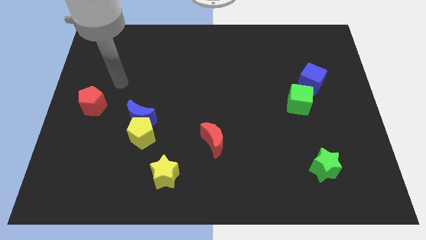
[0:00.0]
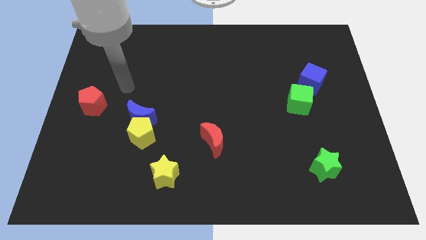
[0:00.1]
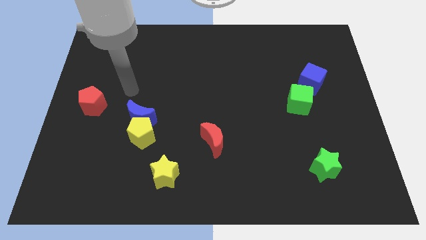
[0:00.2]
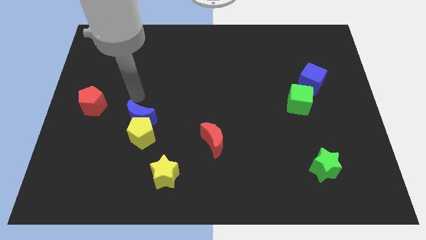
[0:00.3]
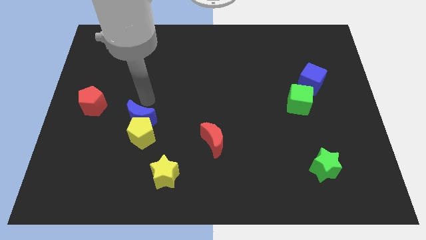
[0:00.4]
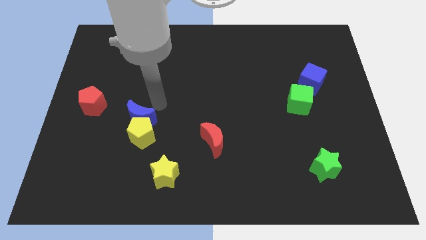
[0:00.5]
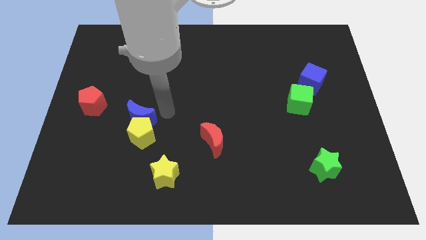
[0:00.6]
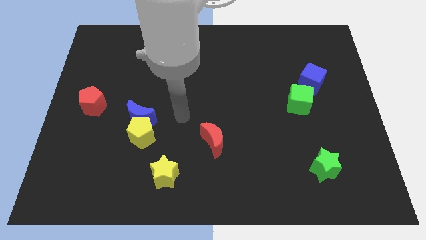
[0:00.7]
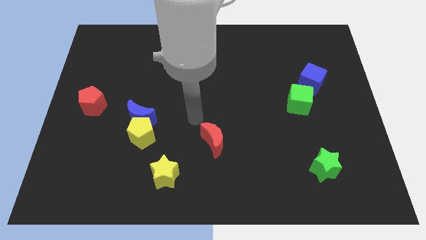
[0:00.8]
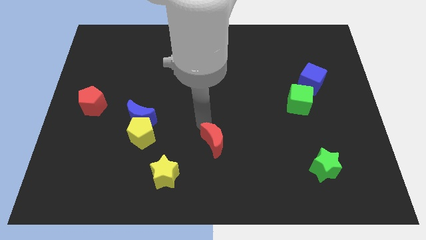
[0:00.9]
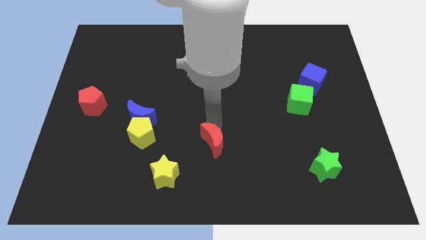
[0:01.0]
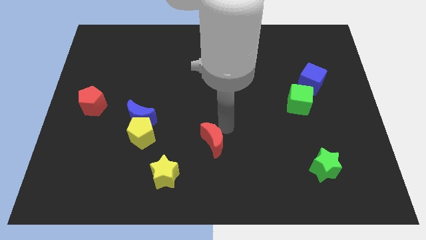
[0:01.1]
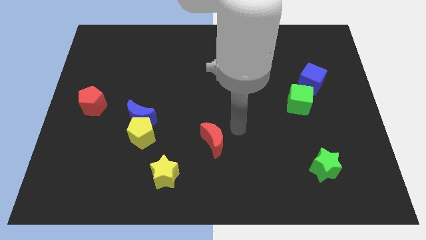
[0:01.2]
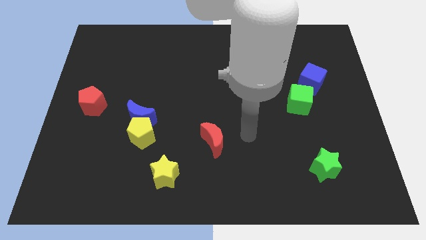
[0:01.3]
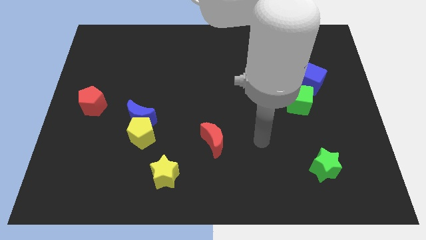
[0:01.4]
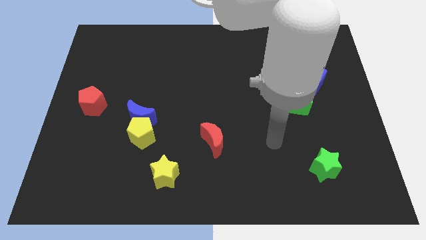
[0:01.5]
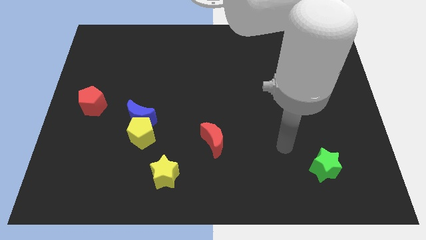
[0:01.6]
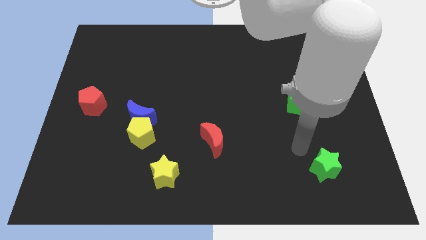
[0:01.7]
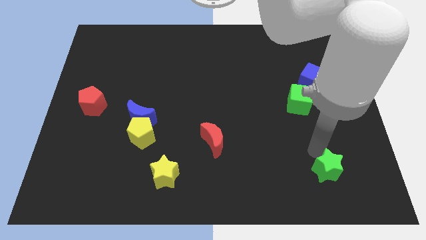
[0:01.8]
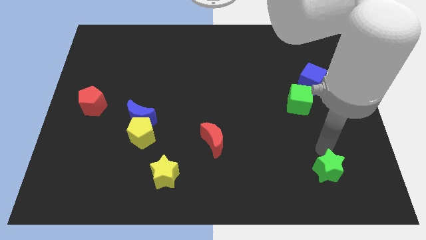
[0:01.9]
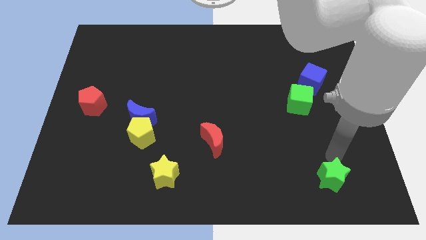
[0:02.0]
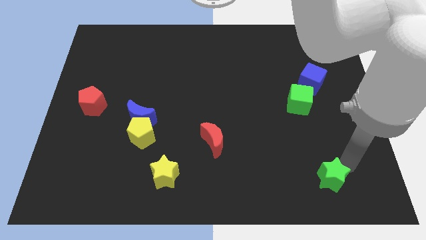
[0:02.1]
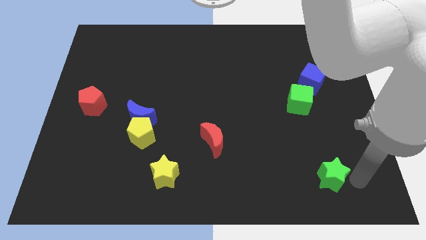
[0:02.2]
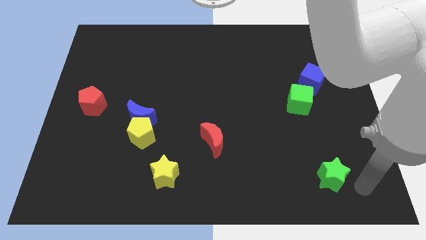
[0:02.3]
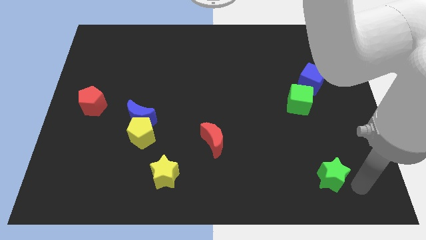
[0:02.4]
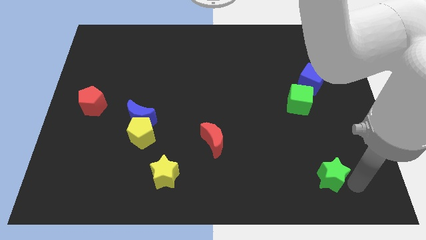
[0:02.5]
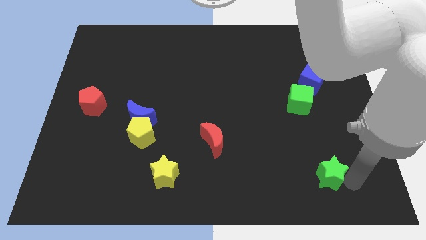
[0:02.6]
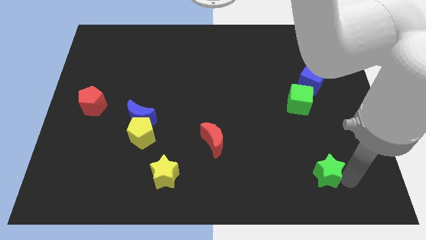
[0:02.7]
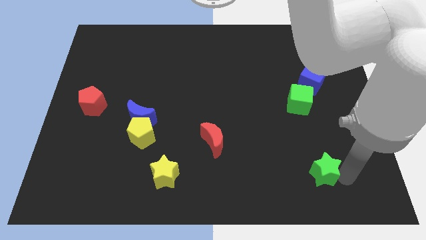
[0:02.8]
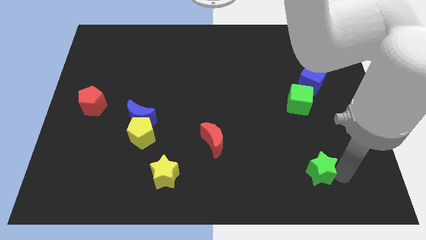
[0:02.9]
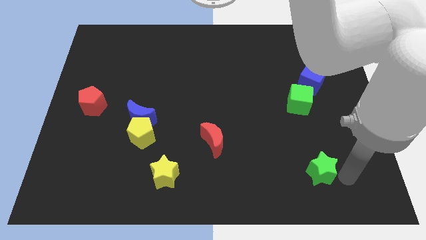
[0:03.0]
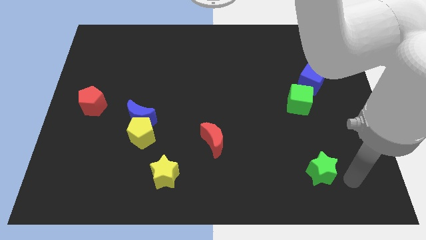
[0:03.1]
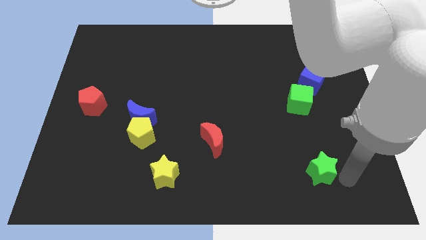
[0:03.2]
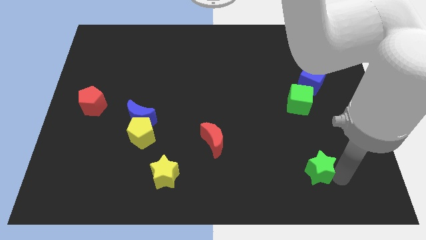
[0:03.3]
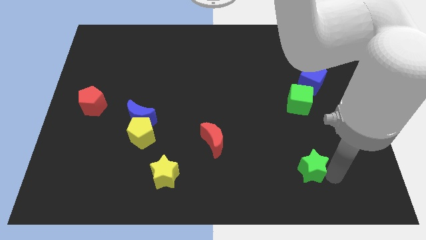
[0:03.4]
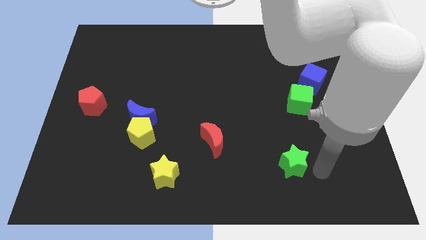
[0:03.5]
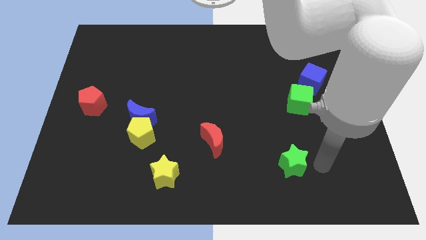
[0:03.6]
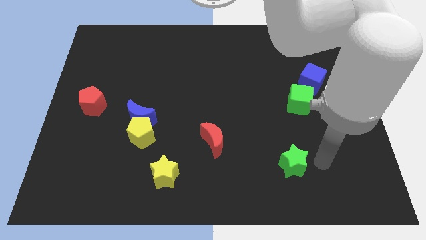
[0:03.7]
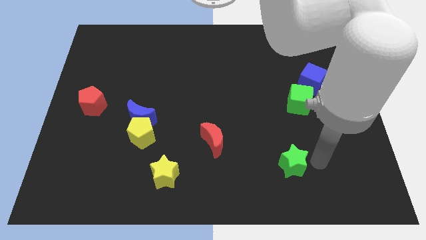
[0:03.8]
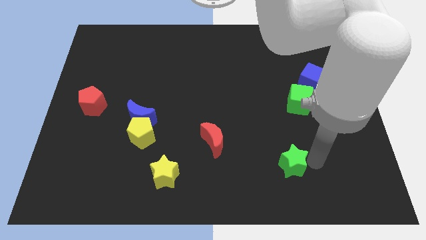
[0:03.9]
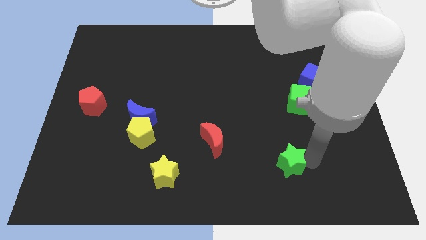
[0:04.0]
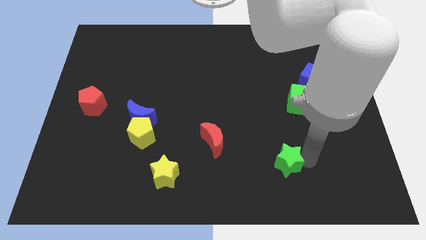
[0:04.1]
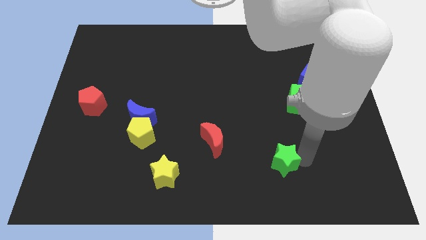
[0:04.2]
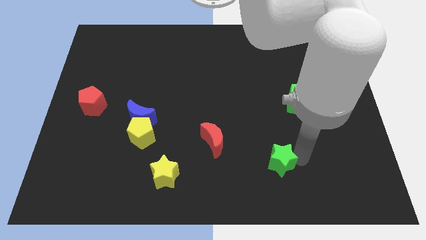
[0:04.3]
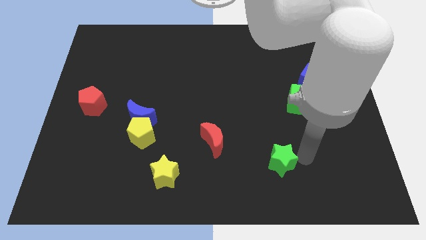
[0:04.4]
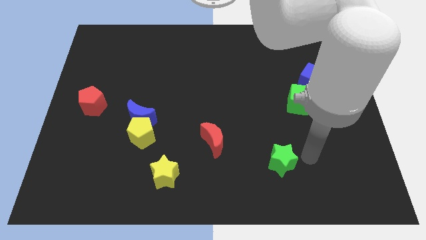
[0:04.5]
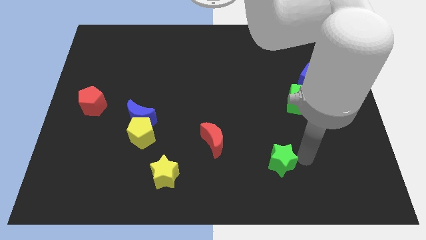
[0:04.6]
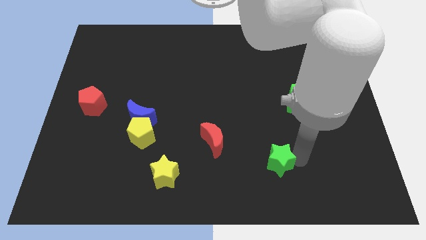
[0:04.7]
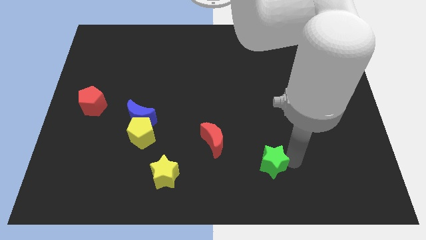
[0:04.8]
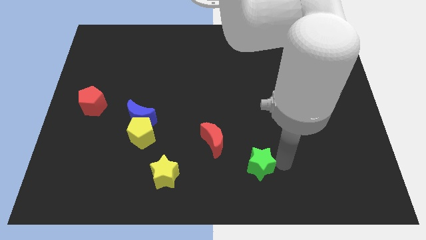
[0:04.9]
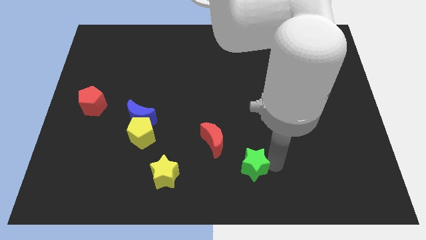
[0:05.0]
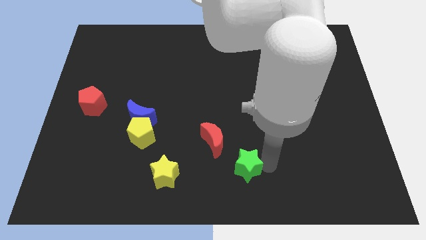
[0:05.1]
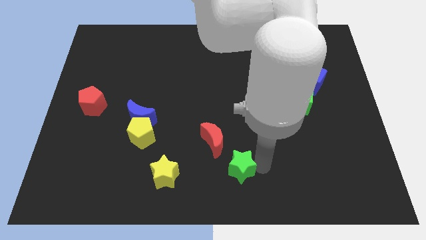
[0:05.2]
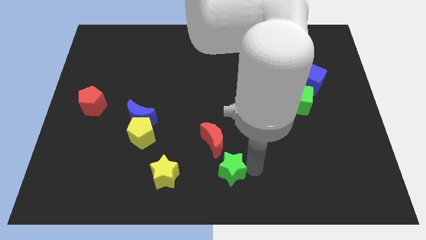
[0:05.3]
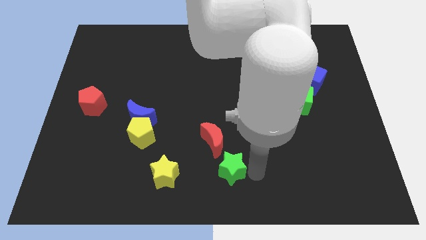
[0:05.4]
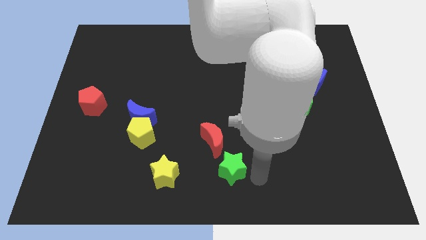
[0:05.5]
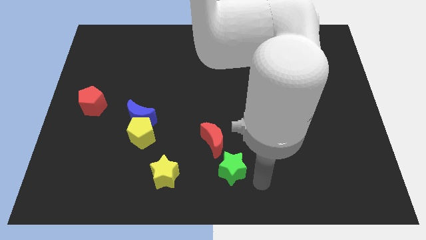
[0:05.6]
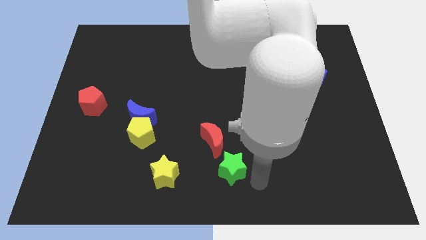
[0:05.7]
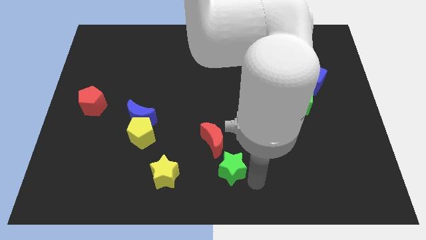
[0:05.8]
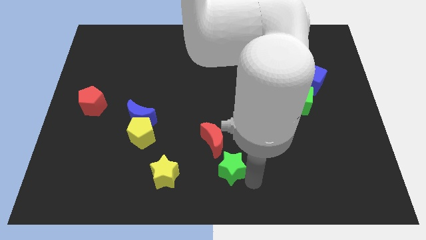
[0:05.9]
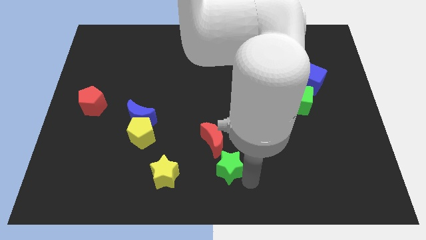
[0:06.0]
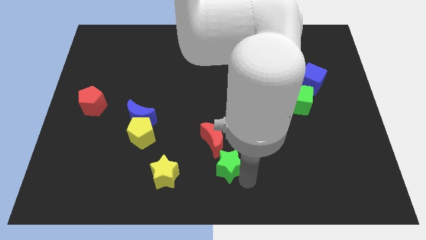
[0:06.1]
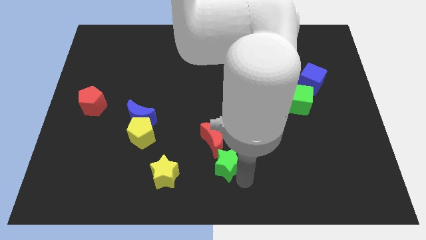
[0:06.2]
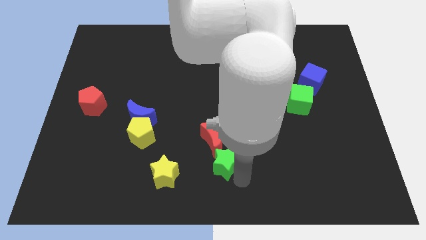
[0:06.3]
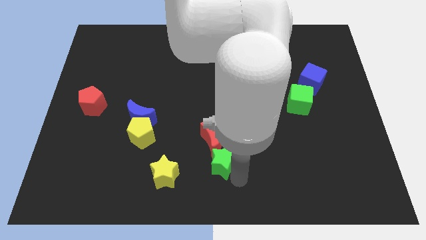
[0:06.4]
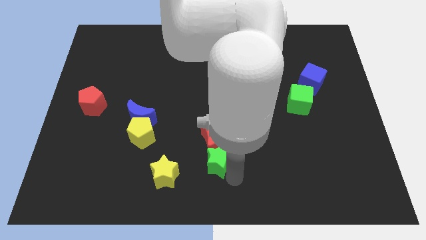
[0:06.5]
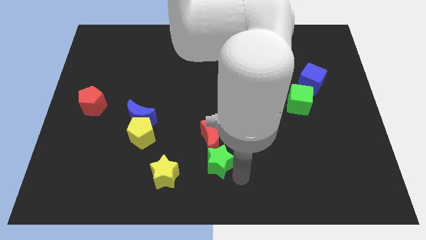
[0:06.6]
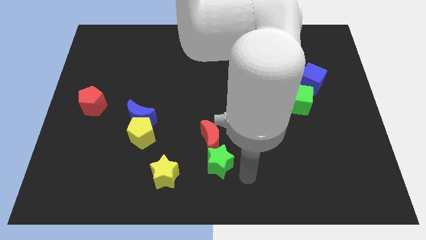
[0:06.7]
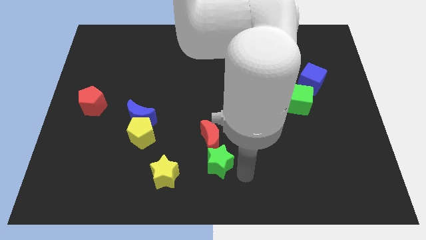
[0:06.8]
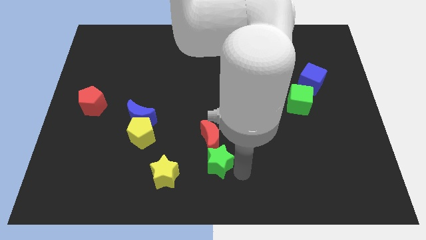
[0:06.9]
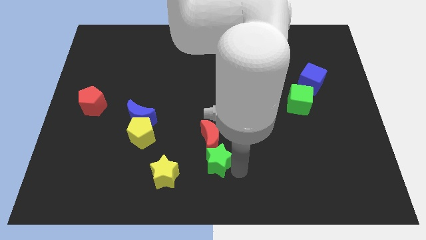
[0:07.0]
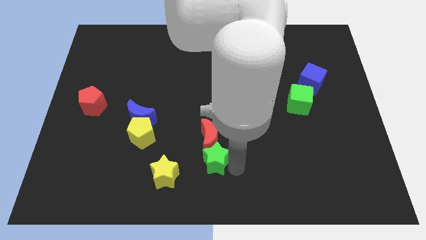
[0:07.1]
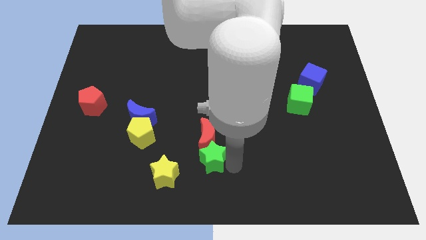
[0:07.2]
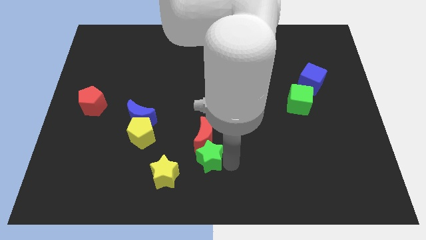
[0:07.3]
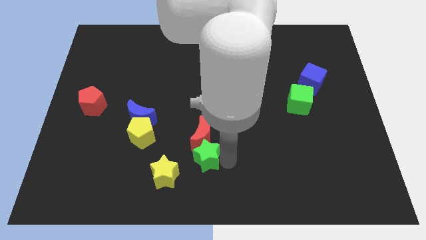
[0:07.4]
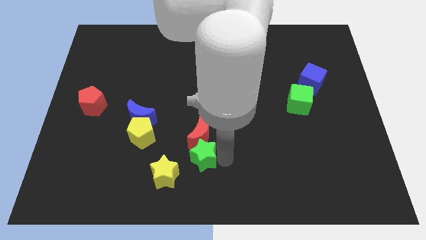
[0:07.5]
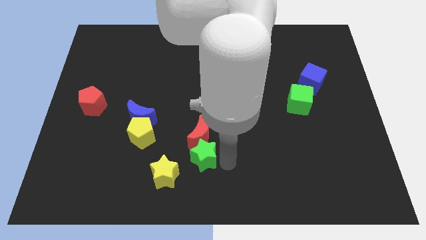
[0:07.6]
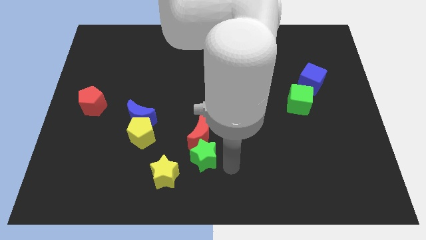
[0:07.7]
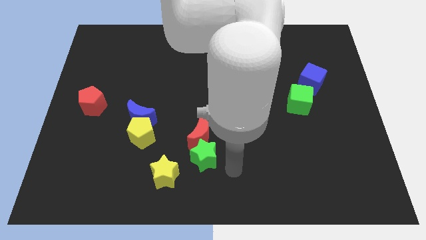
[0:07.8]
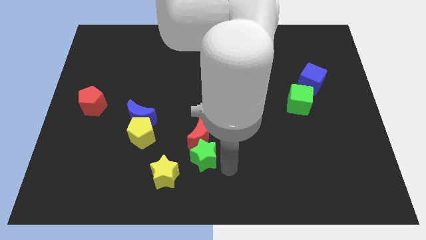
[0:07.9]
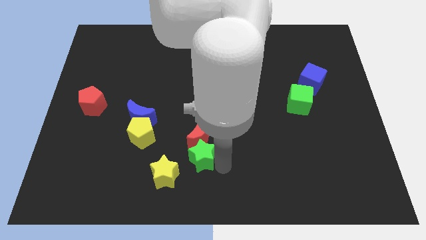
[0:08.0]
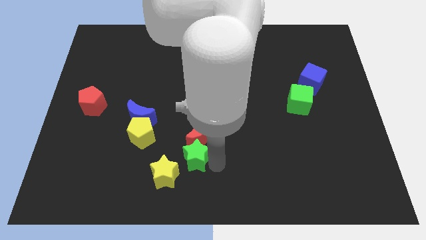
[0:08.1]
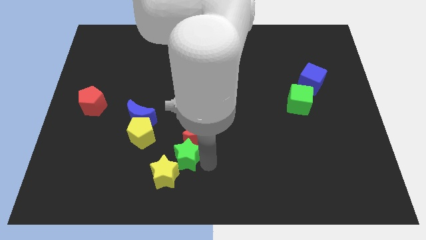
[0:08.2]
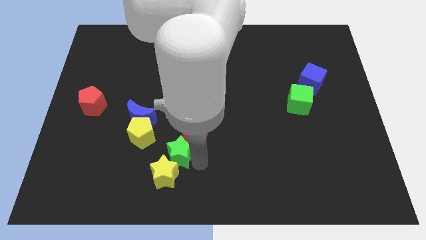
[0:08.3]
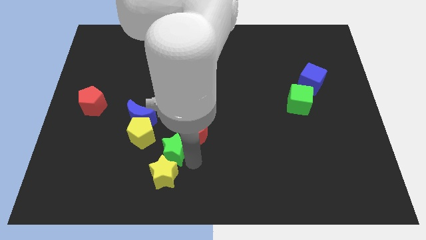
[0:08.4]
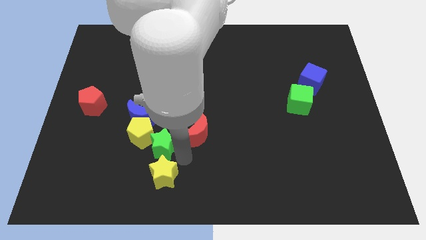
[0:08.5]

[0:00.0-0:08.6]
move the green star next to the yellow pentagon
